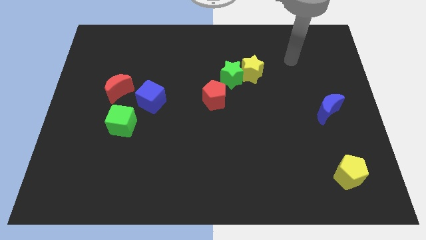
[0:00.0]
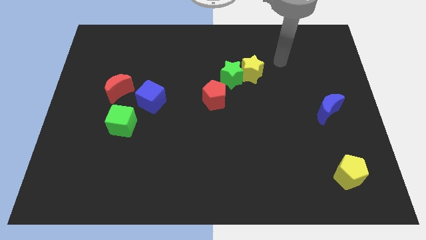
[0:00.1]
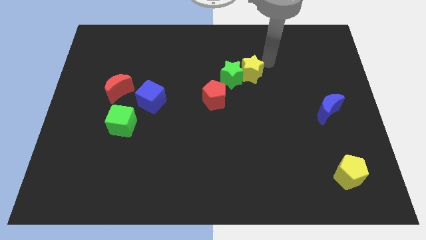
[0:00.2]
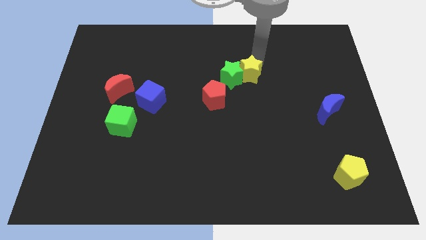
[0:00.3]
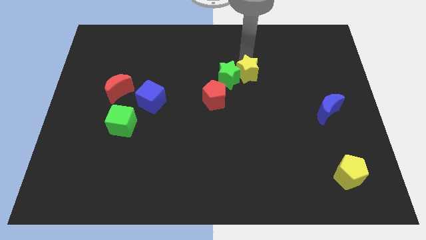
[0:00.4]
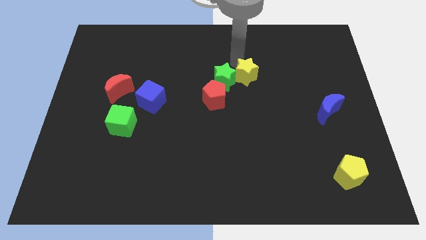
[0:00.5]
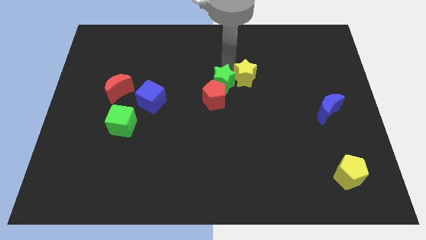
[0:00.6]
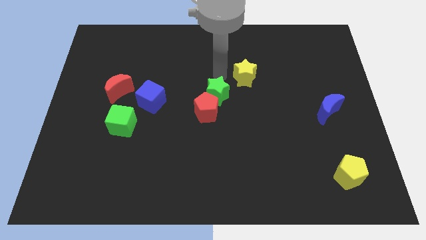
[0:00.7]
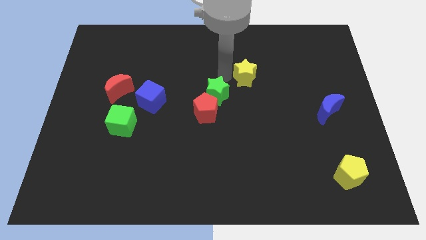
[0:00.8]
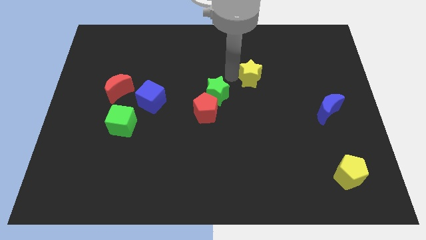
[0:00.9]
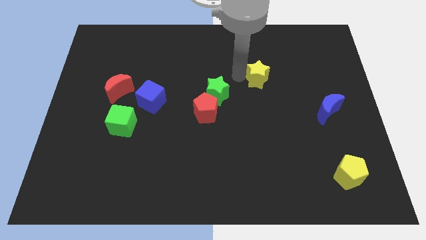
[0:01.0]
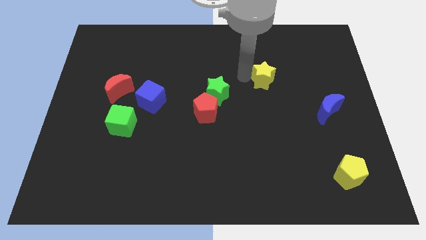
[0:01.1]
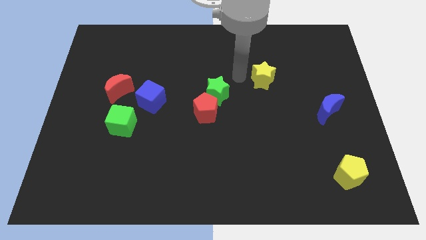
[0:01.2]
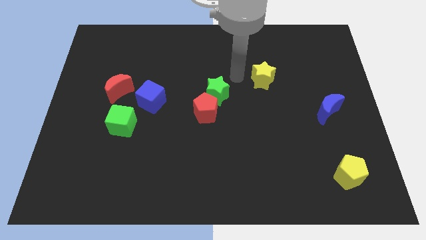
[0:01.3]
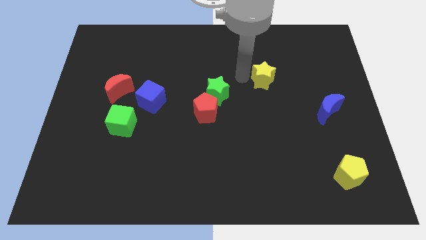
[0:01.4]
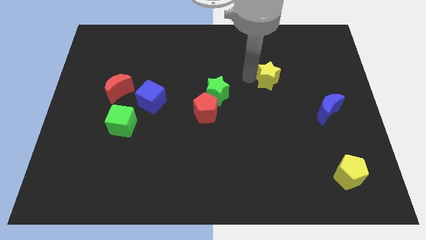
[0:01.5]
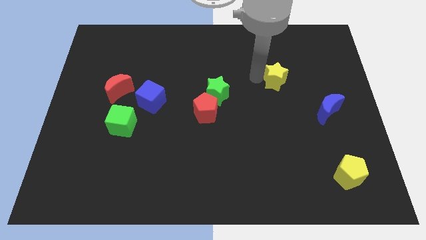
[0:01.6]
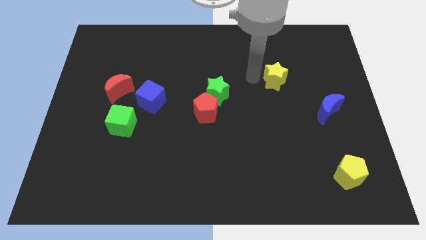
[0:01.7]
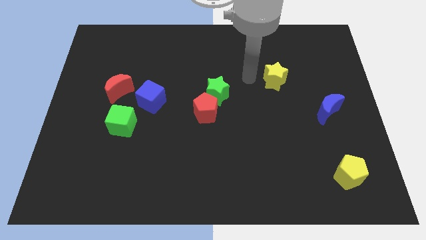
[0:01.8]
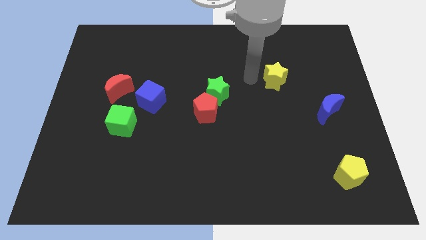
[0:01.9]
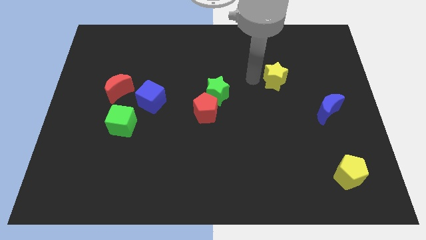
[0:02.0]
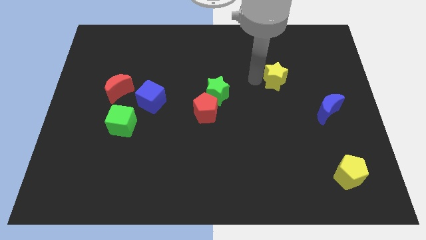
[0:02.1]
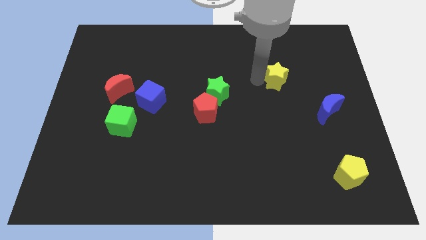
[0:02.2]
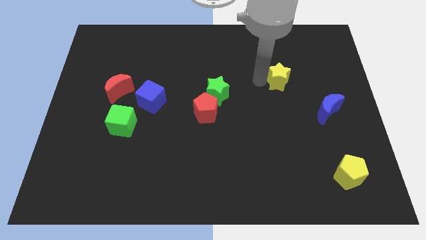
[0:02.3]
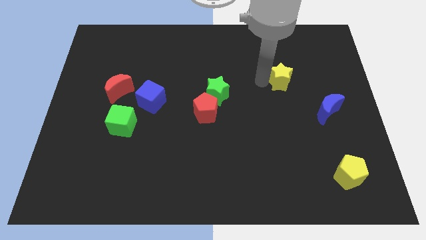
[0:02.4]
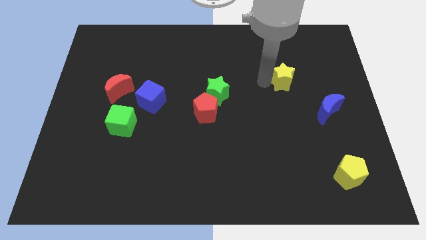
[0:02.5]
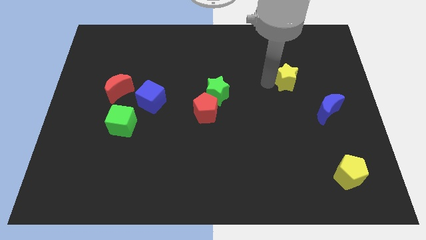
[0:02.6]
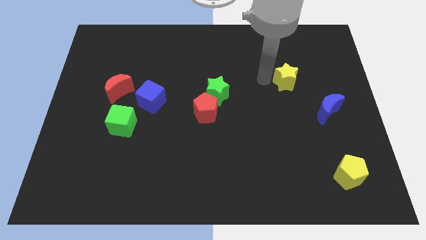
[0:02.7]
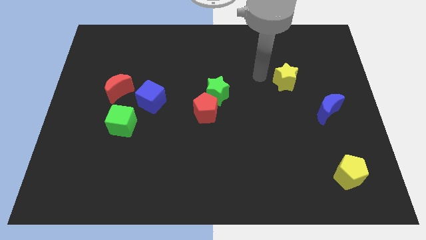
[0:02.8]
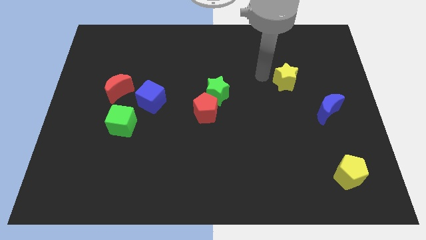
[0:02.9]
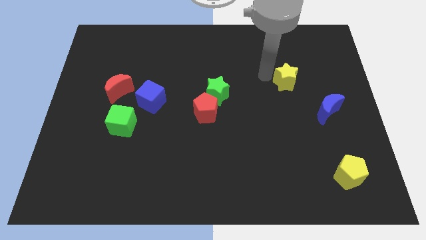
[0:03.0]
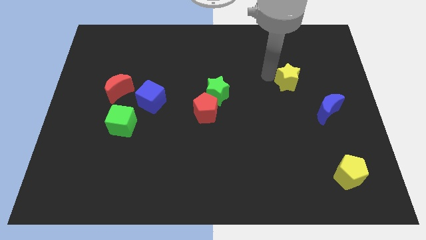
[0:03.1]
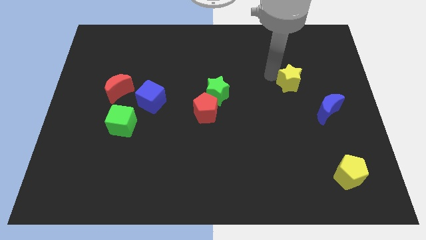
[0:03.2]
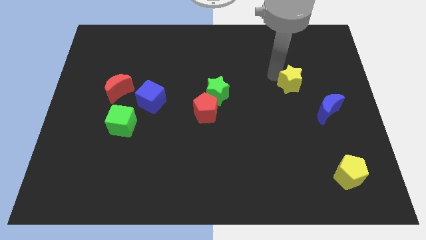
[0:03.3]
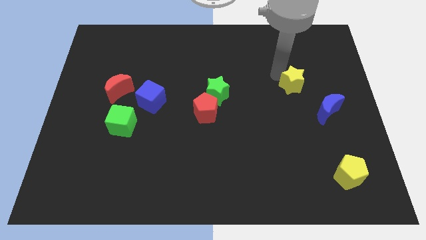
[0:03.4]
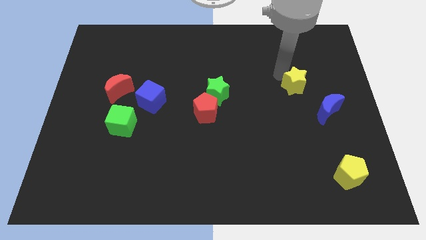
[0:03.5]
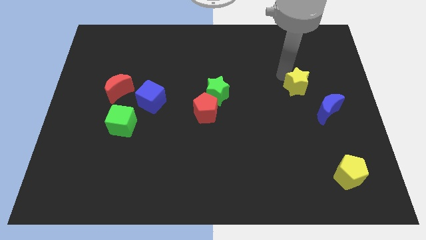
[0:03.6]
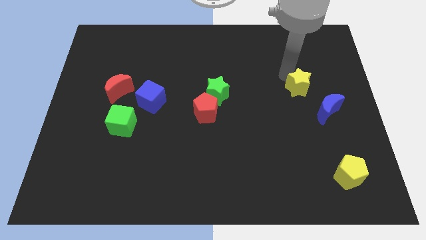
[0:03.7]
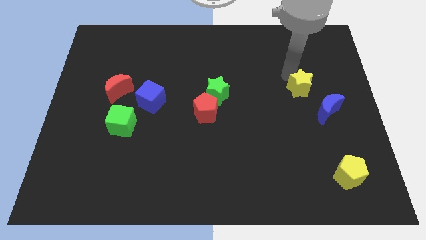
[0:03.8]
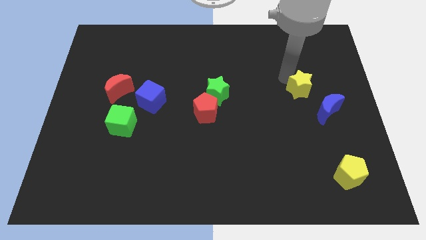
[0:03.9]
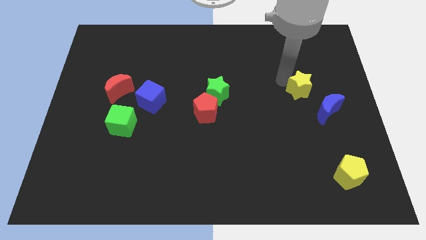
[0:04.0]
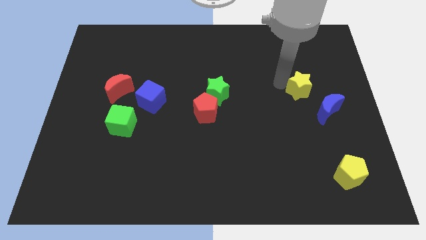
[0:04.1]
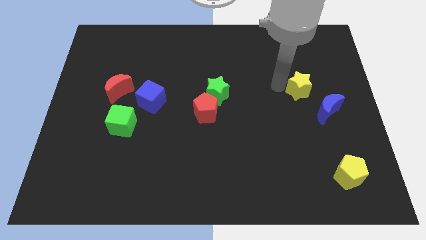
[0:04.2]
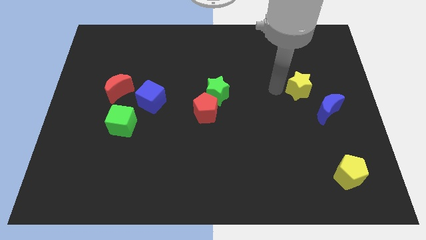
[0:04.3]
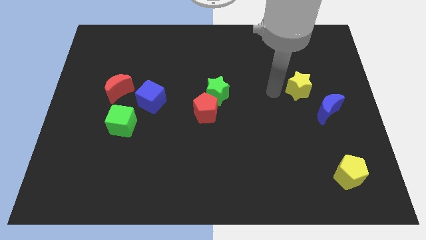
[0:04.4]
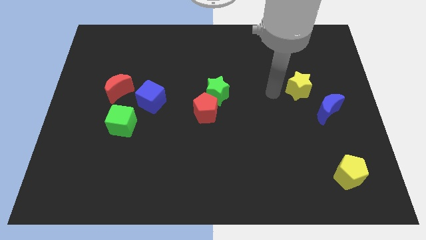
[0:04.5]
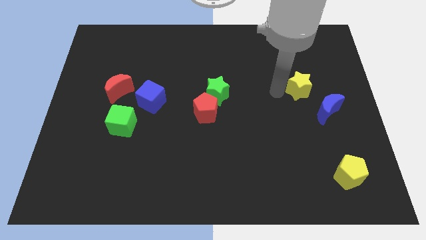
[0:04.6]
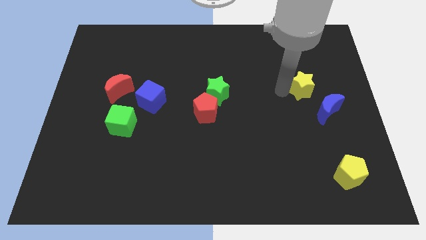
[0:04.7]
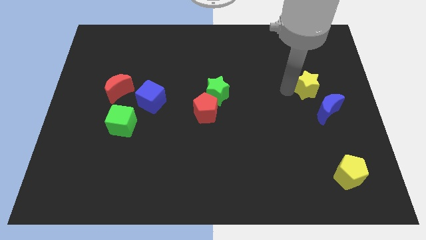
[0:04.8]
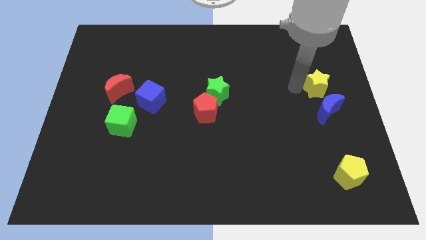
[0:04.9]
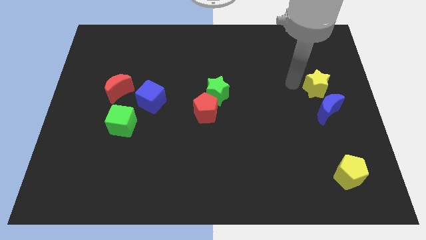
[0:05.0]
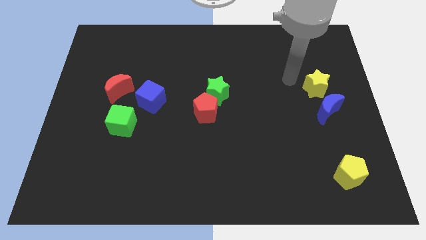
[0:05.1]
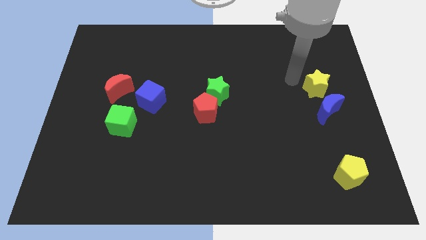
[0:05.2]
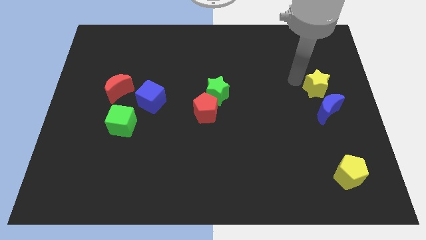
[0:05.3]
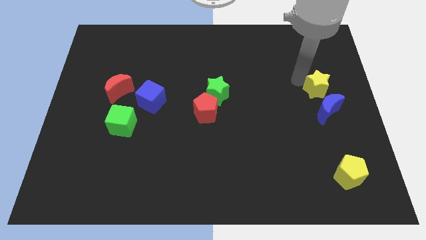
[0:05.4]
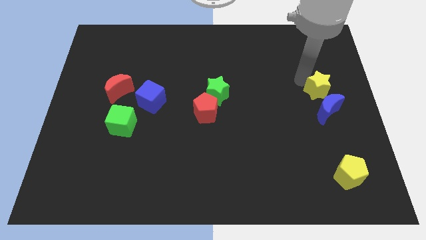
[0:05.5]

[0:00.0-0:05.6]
push the yellow star to the right side of the board

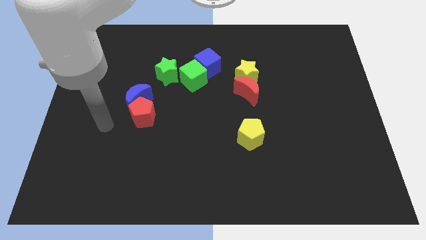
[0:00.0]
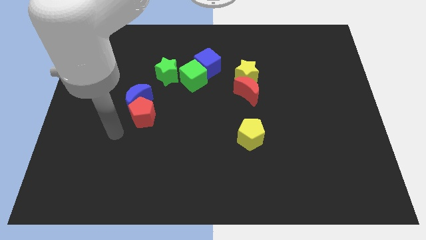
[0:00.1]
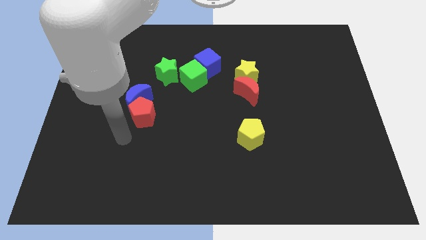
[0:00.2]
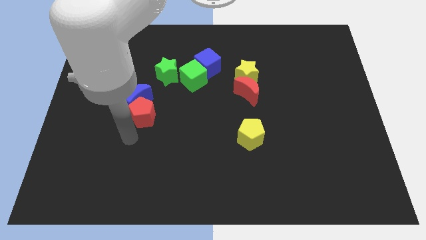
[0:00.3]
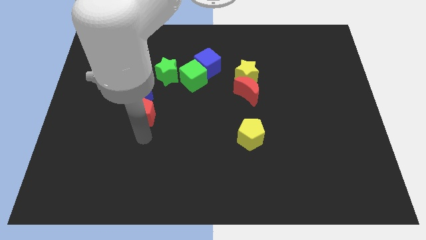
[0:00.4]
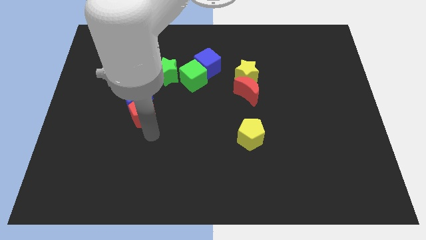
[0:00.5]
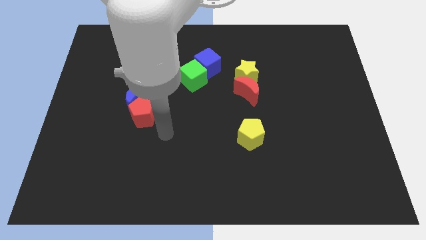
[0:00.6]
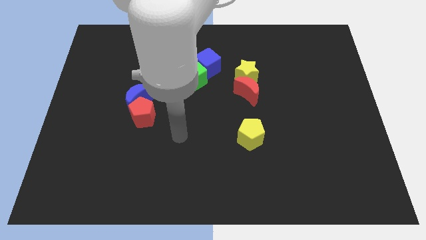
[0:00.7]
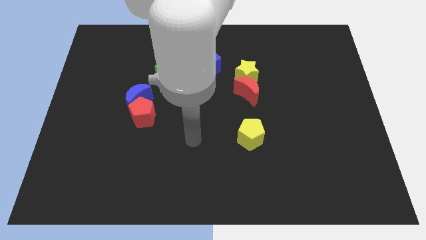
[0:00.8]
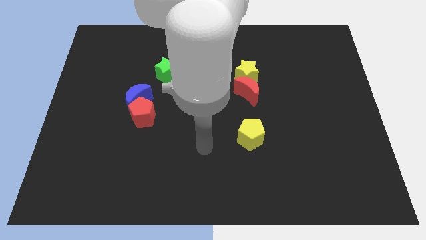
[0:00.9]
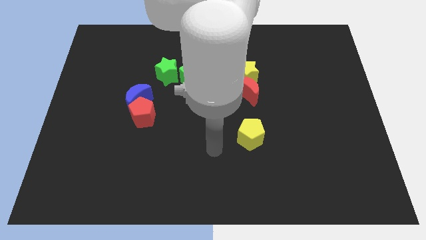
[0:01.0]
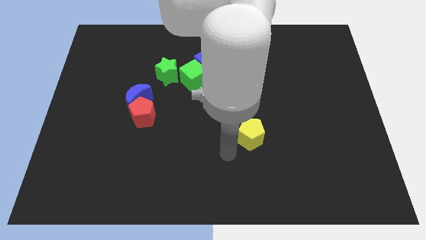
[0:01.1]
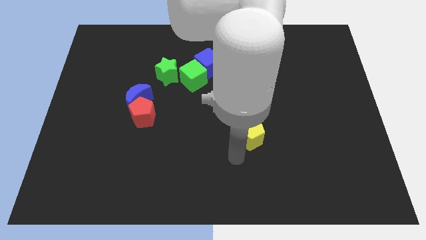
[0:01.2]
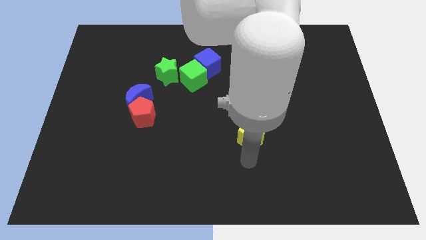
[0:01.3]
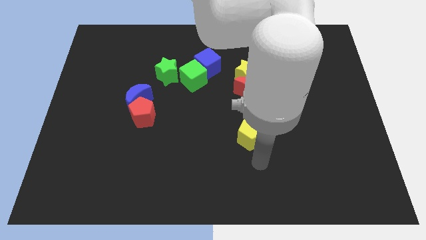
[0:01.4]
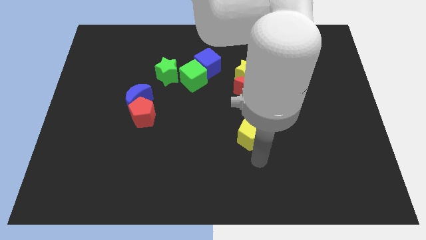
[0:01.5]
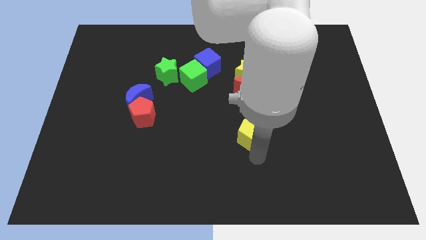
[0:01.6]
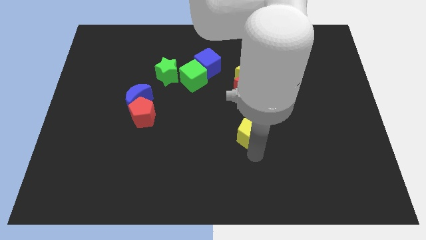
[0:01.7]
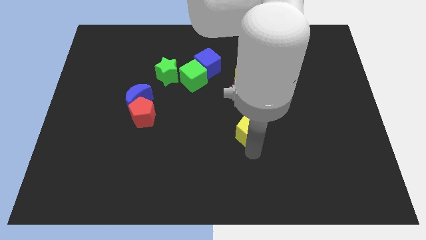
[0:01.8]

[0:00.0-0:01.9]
put the yellow pentagon to the center of the board
